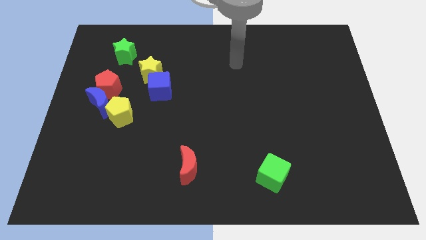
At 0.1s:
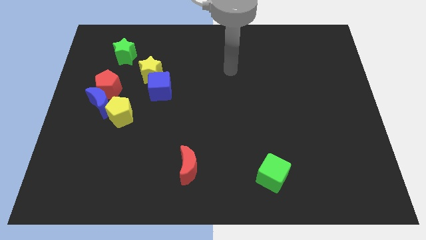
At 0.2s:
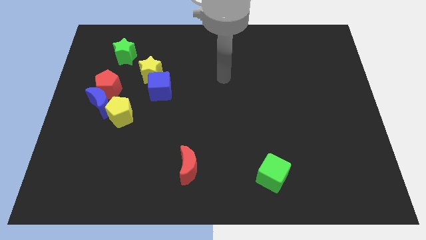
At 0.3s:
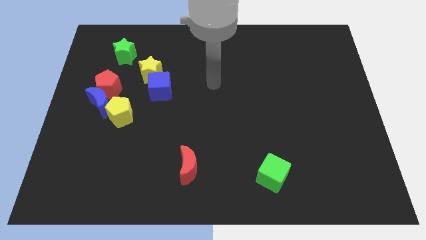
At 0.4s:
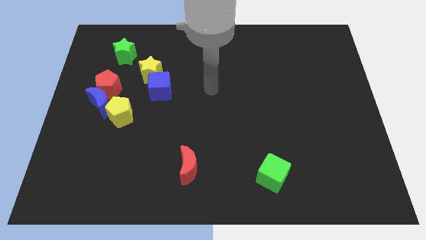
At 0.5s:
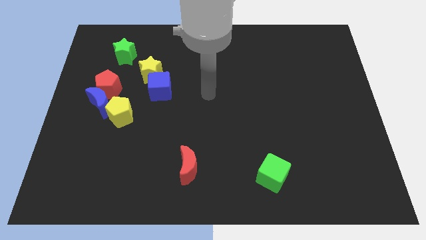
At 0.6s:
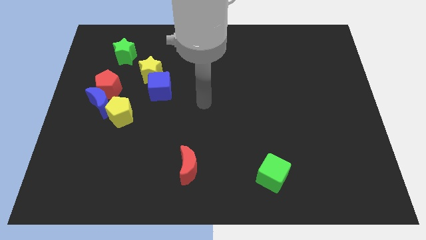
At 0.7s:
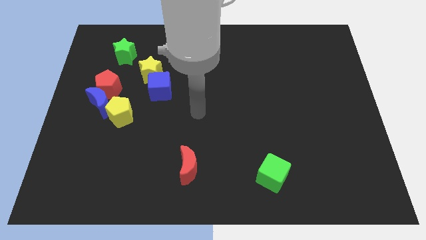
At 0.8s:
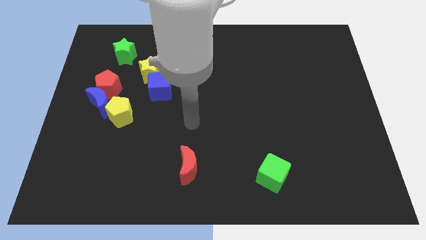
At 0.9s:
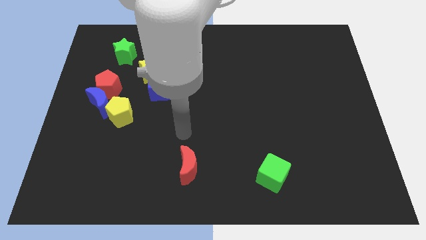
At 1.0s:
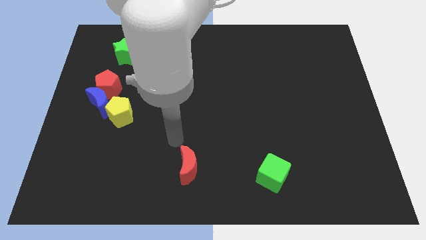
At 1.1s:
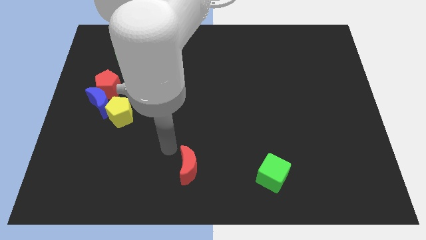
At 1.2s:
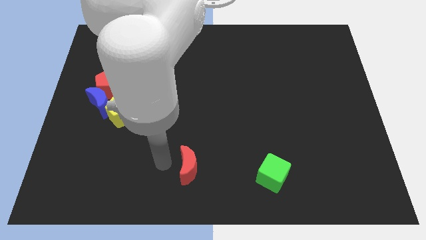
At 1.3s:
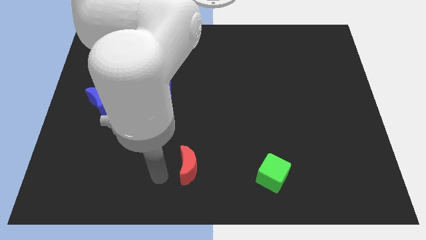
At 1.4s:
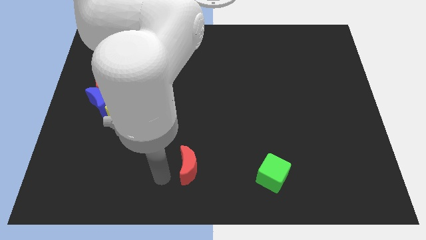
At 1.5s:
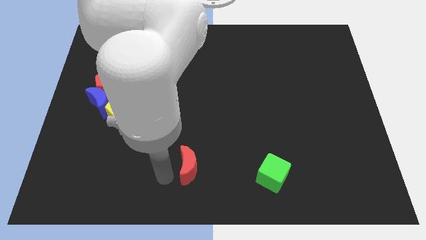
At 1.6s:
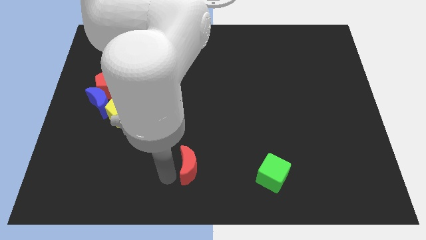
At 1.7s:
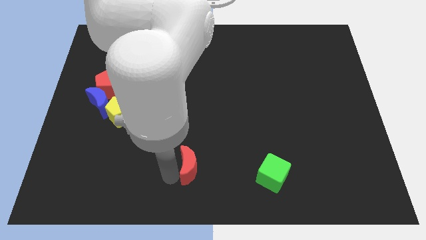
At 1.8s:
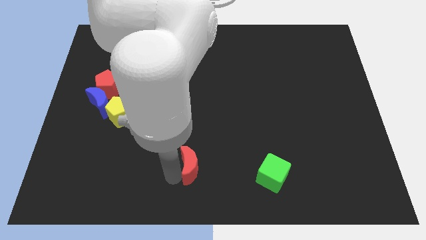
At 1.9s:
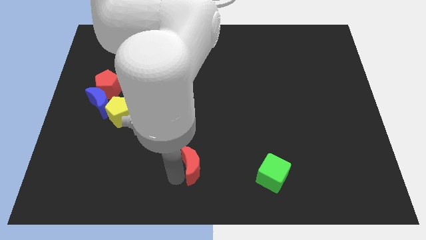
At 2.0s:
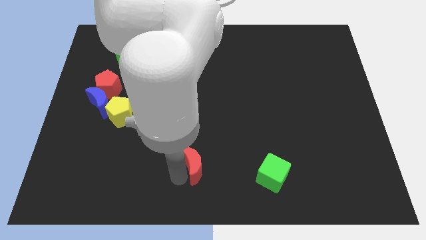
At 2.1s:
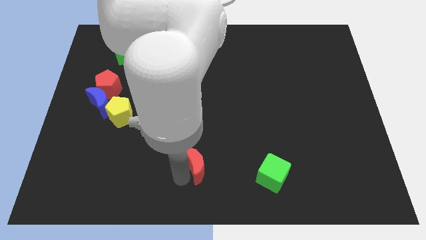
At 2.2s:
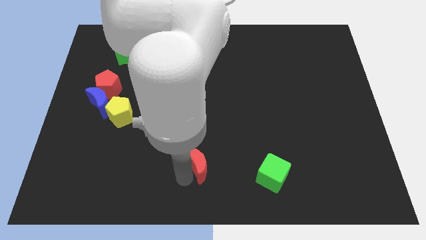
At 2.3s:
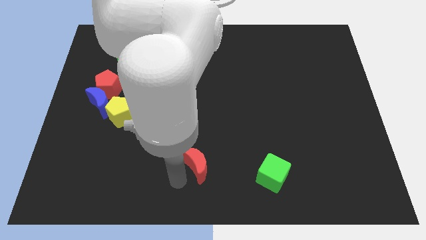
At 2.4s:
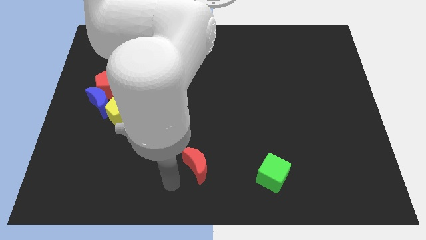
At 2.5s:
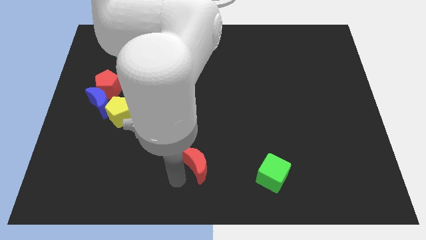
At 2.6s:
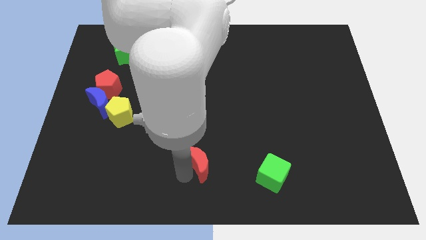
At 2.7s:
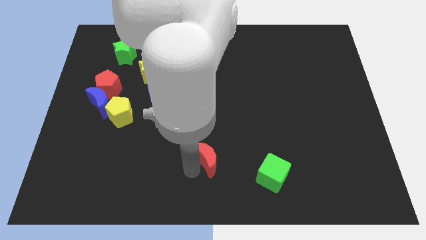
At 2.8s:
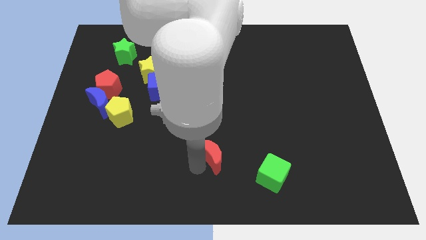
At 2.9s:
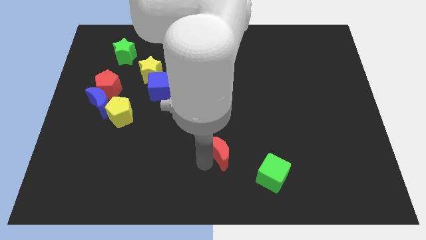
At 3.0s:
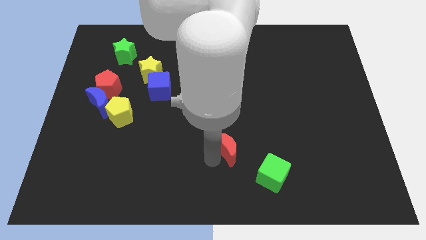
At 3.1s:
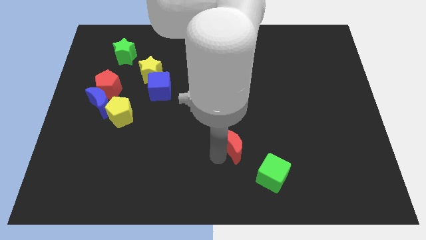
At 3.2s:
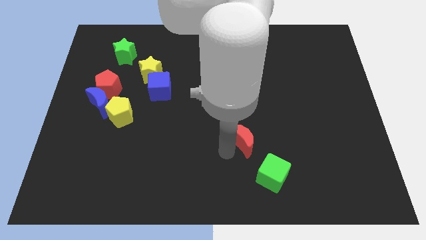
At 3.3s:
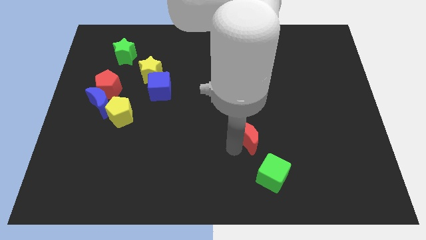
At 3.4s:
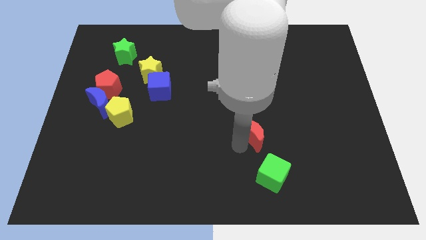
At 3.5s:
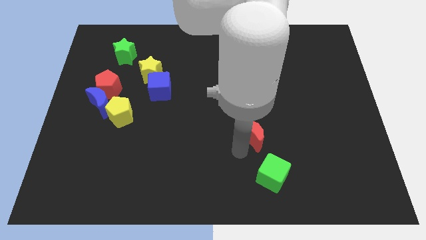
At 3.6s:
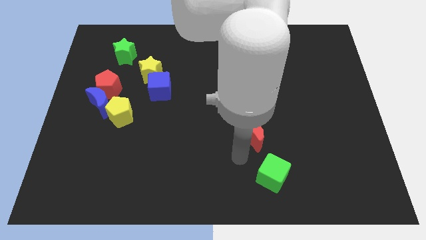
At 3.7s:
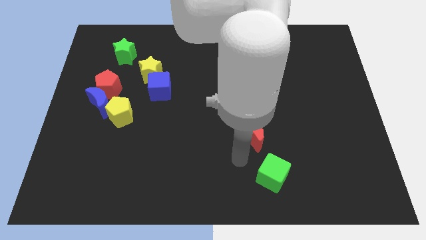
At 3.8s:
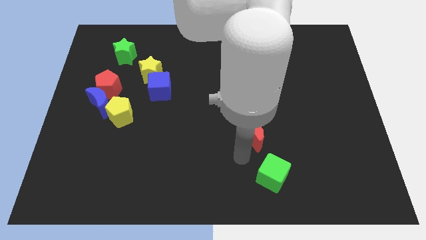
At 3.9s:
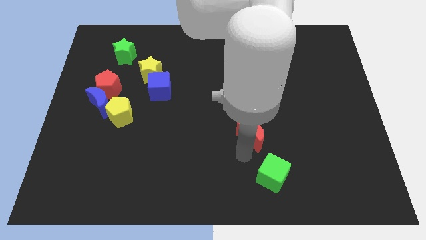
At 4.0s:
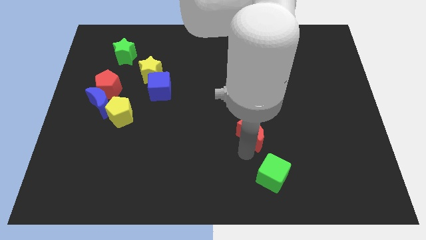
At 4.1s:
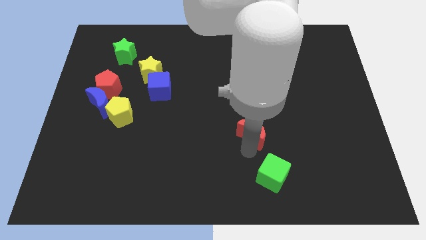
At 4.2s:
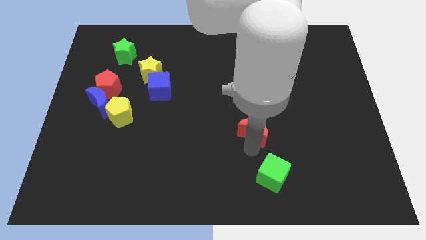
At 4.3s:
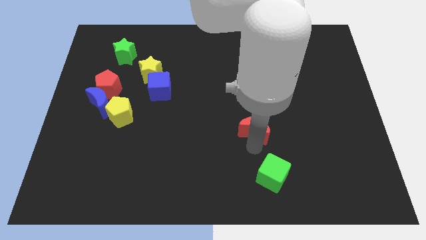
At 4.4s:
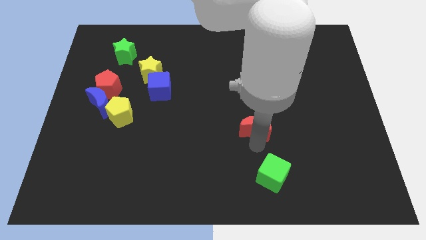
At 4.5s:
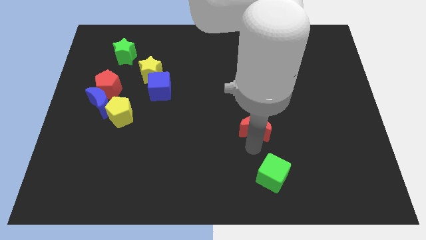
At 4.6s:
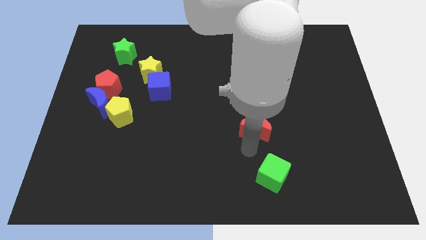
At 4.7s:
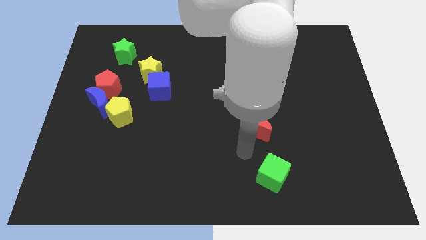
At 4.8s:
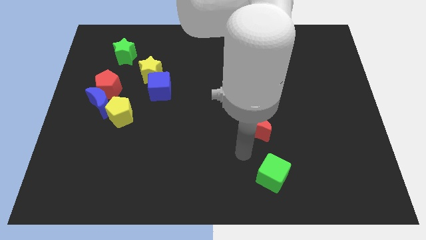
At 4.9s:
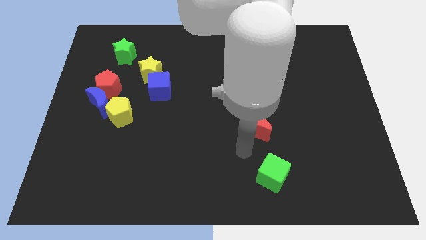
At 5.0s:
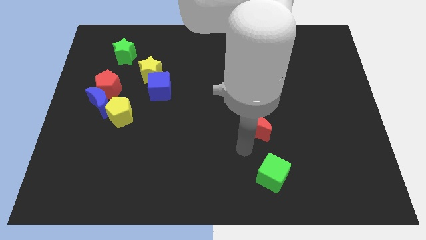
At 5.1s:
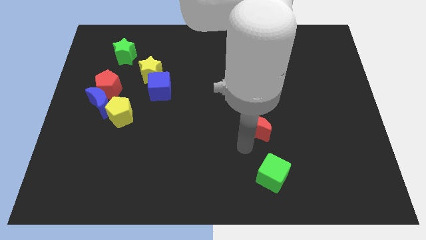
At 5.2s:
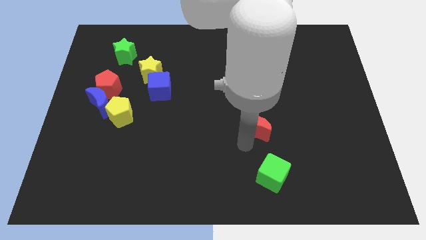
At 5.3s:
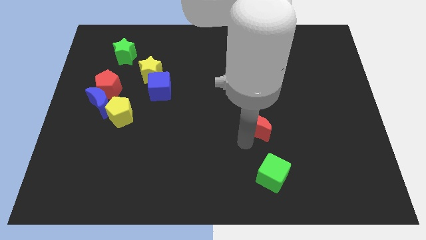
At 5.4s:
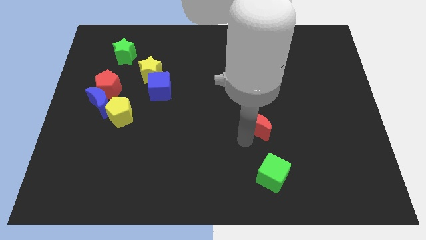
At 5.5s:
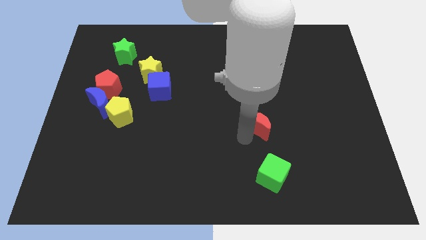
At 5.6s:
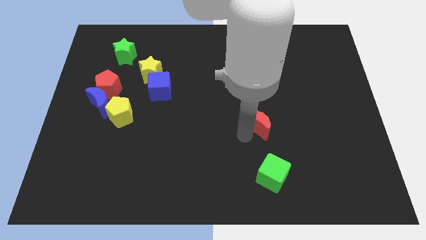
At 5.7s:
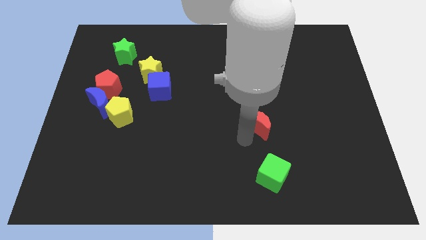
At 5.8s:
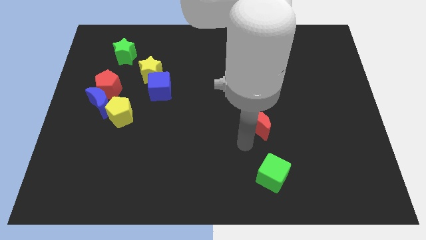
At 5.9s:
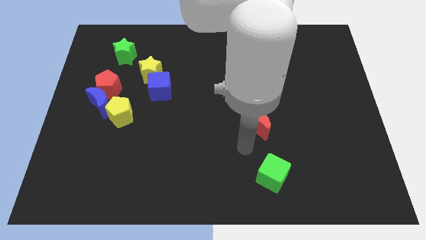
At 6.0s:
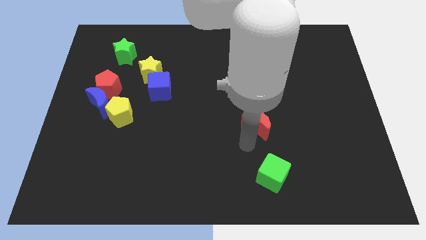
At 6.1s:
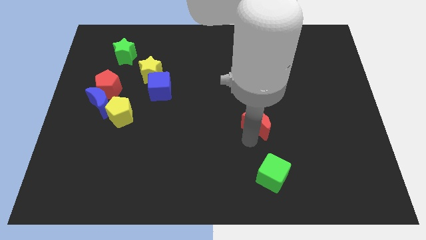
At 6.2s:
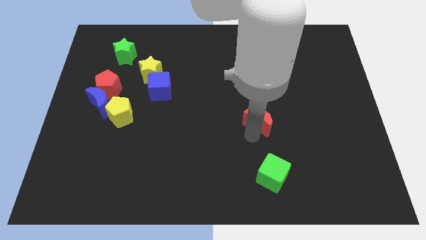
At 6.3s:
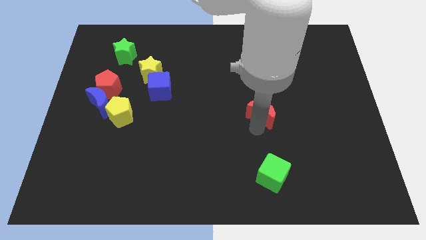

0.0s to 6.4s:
slide the red moon diagonally up and to the right

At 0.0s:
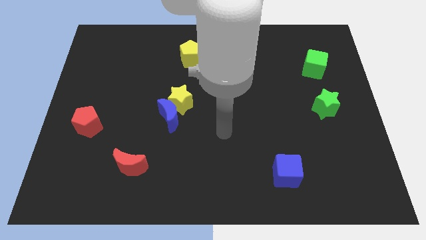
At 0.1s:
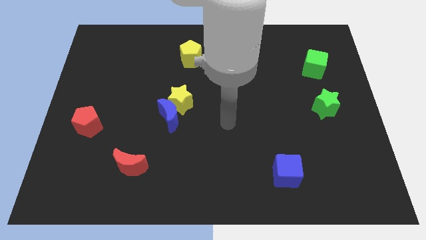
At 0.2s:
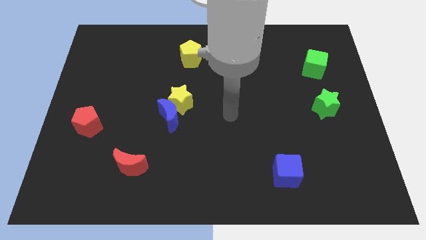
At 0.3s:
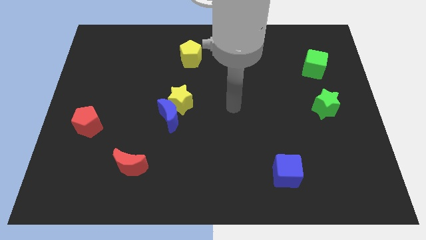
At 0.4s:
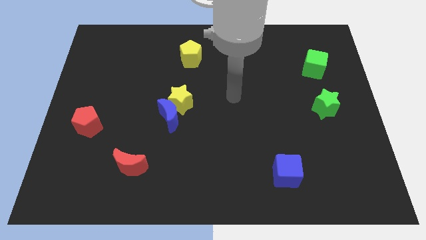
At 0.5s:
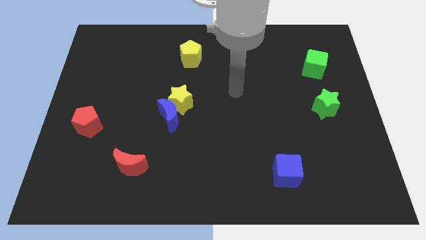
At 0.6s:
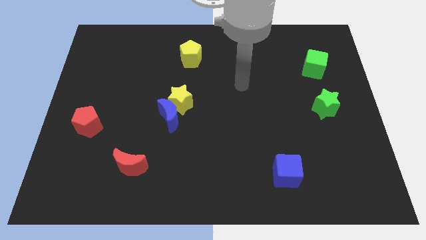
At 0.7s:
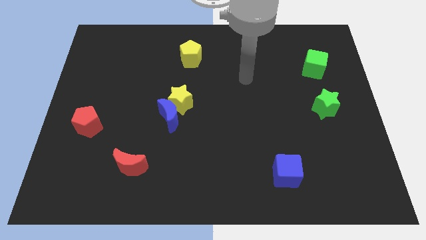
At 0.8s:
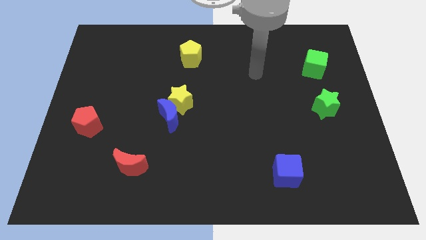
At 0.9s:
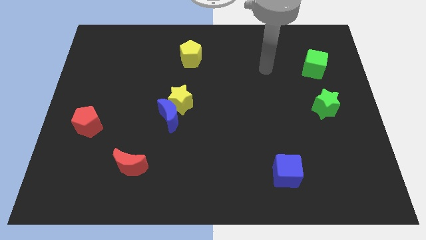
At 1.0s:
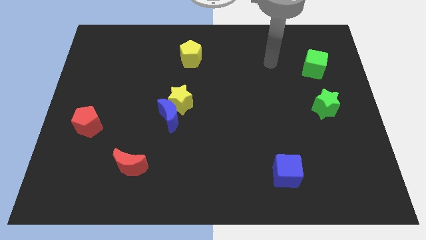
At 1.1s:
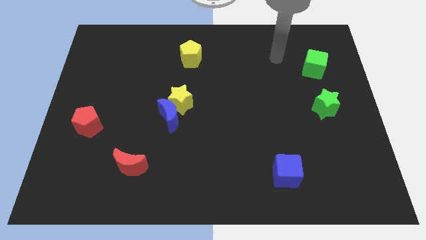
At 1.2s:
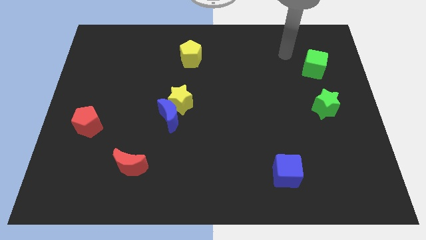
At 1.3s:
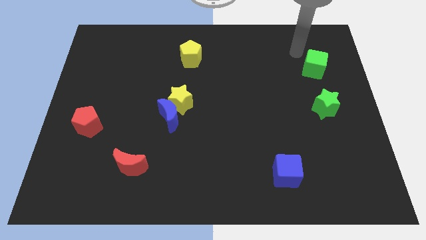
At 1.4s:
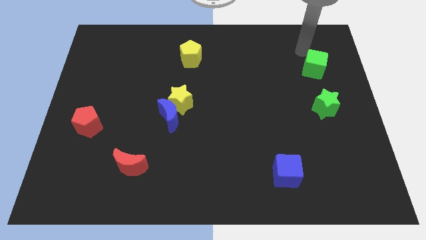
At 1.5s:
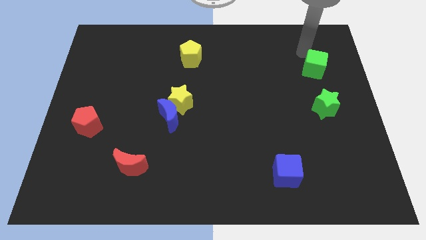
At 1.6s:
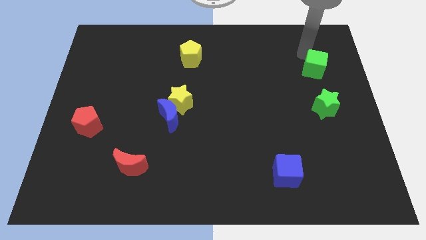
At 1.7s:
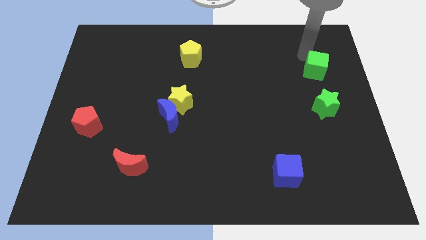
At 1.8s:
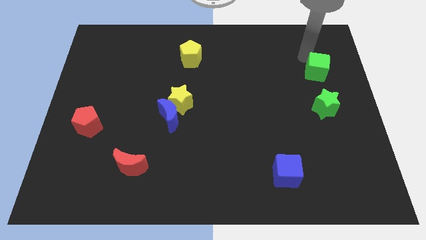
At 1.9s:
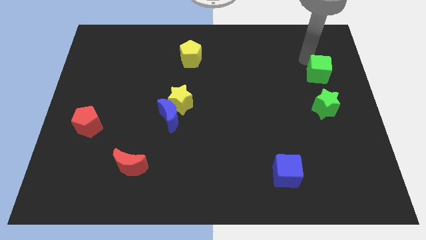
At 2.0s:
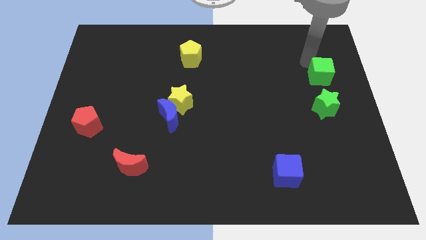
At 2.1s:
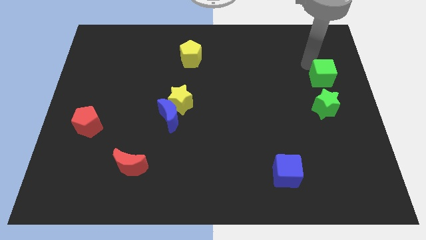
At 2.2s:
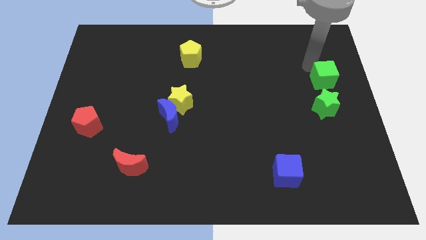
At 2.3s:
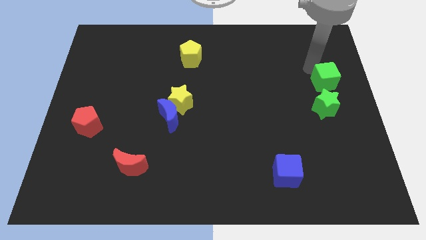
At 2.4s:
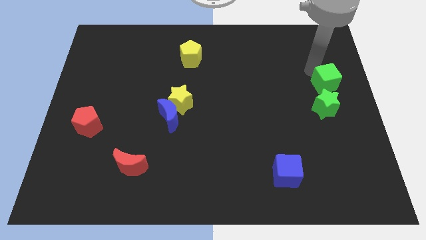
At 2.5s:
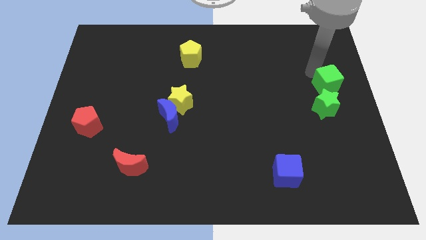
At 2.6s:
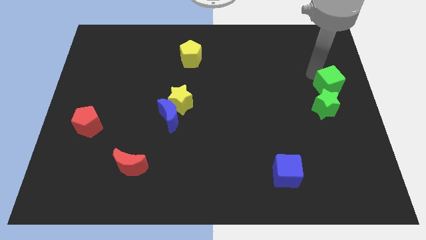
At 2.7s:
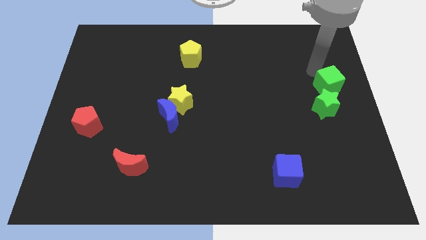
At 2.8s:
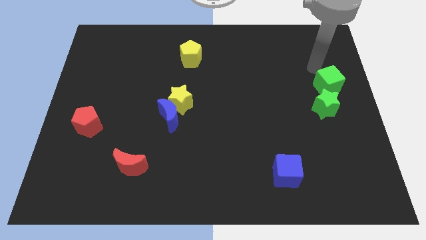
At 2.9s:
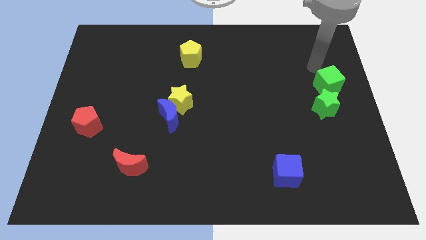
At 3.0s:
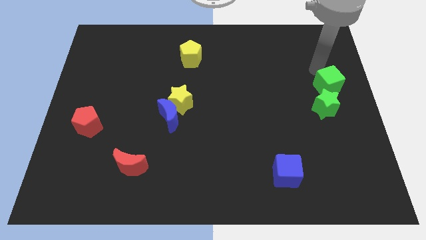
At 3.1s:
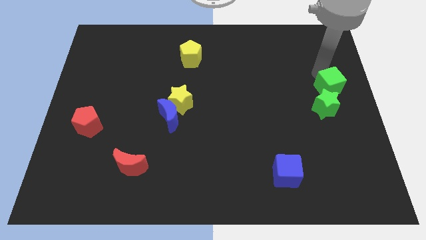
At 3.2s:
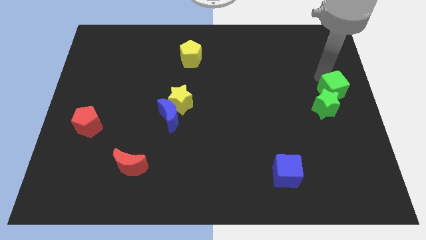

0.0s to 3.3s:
slide the green cube a bit downwards
